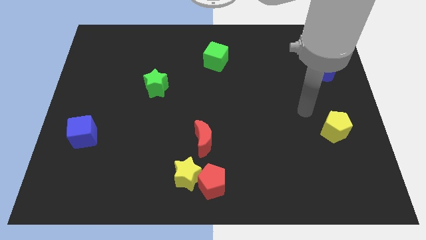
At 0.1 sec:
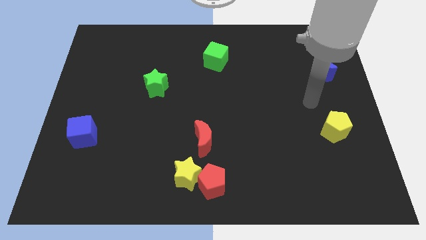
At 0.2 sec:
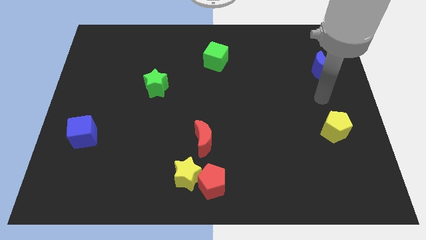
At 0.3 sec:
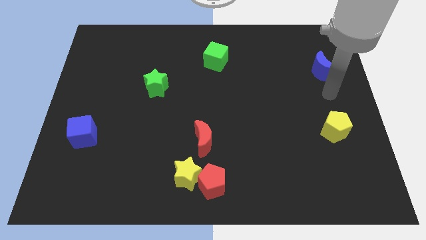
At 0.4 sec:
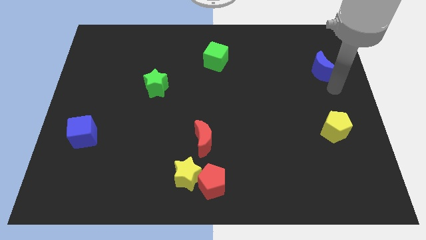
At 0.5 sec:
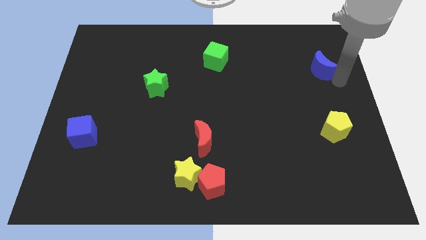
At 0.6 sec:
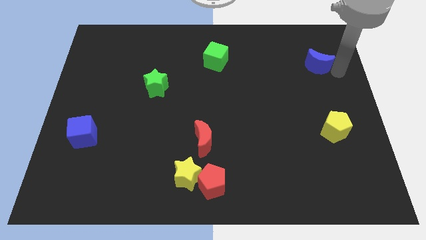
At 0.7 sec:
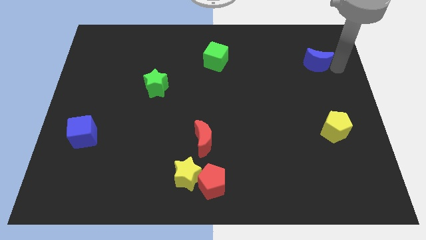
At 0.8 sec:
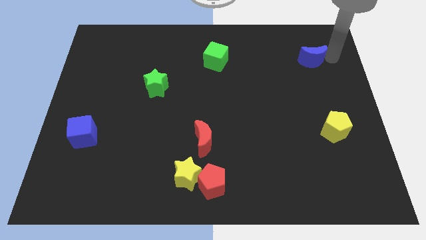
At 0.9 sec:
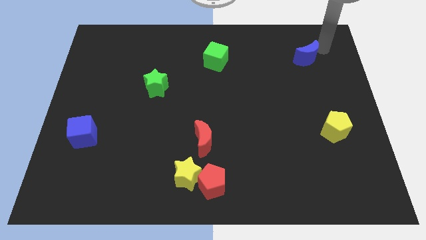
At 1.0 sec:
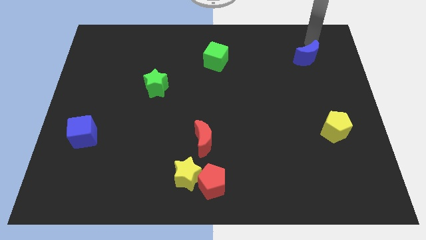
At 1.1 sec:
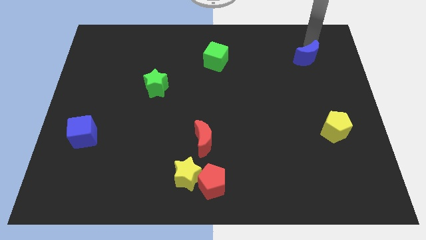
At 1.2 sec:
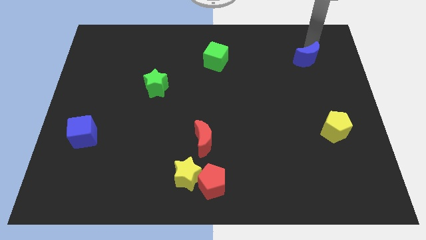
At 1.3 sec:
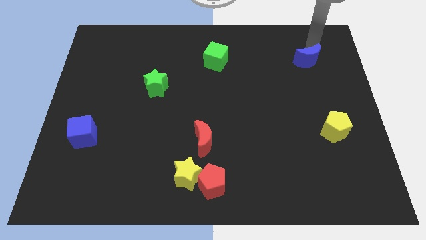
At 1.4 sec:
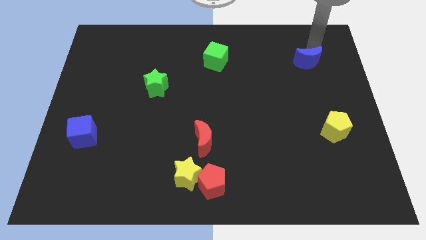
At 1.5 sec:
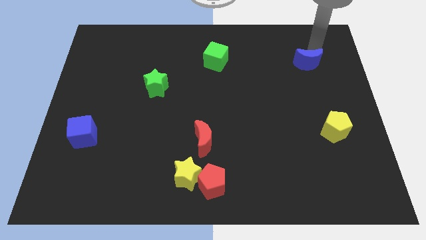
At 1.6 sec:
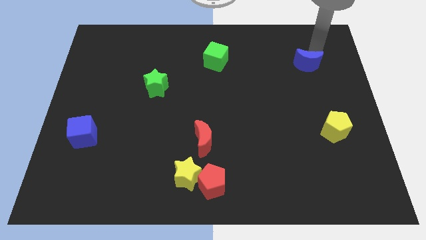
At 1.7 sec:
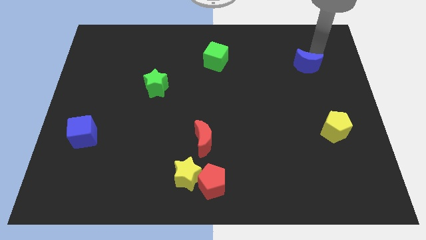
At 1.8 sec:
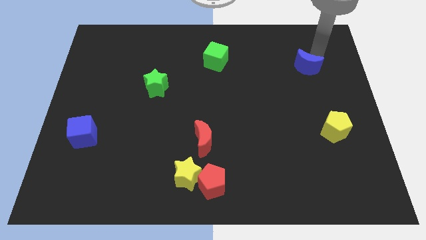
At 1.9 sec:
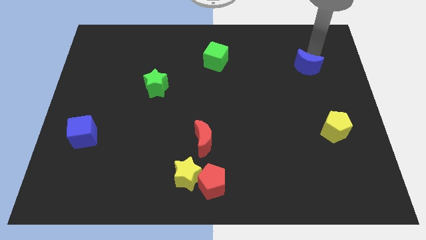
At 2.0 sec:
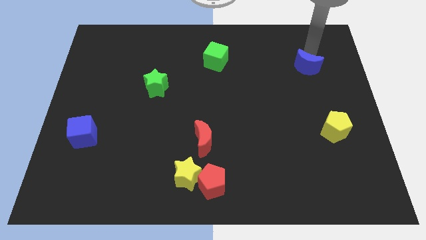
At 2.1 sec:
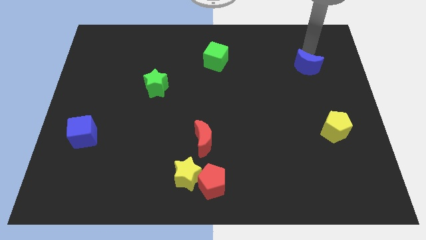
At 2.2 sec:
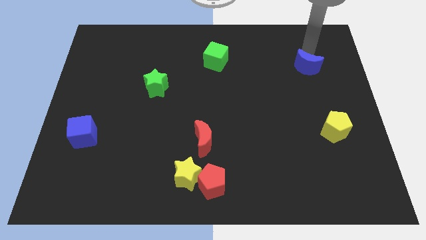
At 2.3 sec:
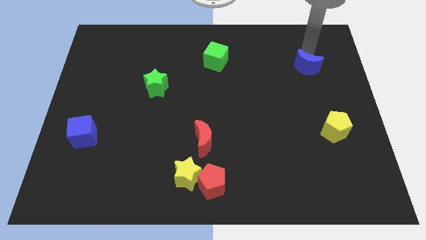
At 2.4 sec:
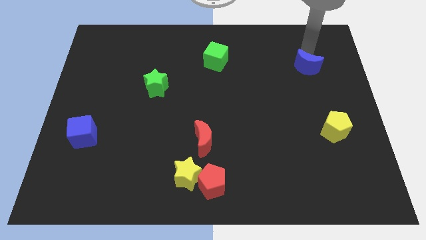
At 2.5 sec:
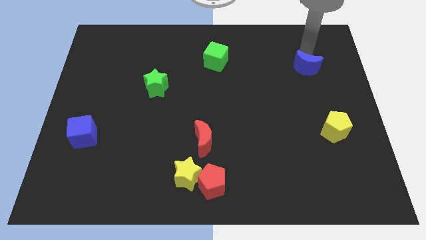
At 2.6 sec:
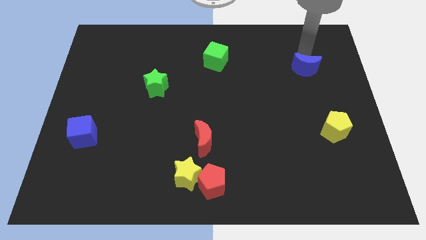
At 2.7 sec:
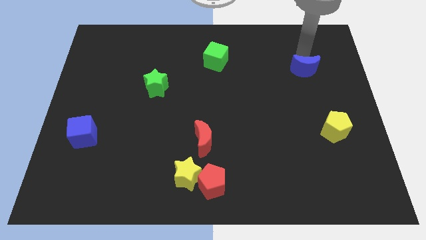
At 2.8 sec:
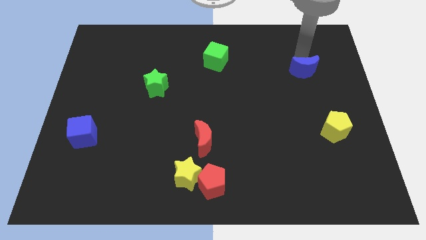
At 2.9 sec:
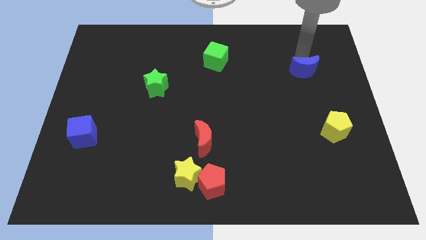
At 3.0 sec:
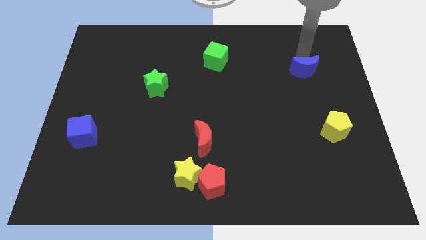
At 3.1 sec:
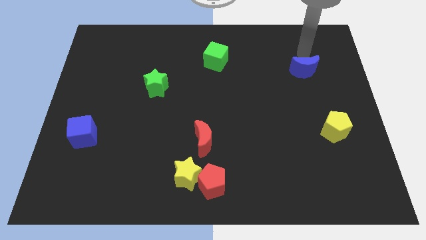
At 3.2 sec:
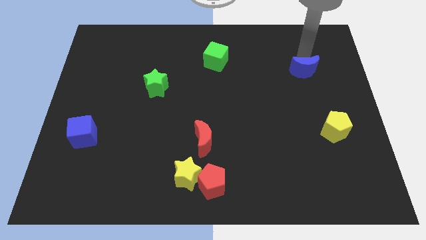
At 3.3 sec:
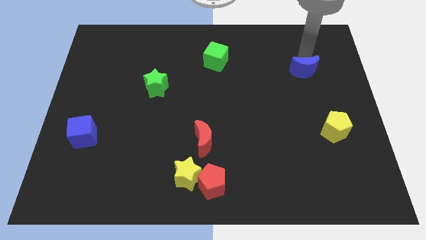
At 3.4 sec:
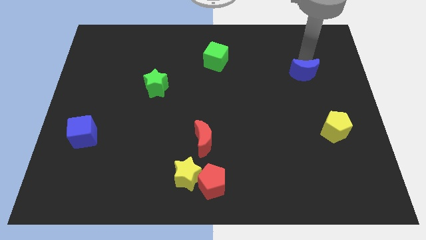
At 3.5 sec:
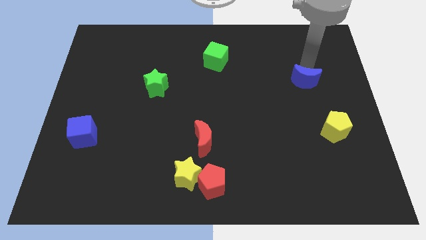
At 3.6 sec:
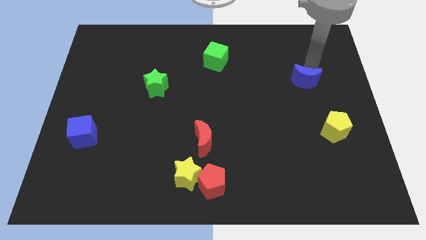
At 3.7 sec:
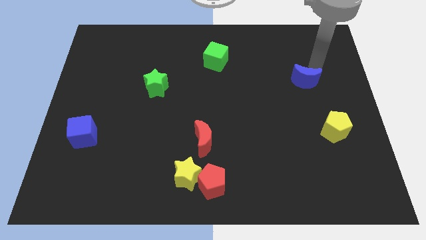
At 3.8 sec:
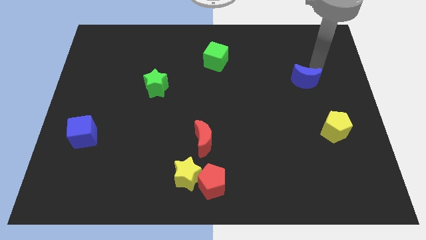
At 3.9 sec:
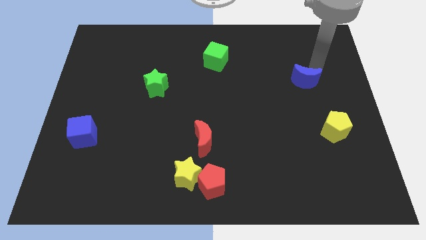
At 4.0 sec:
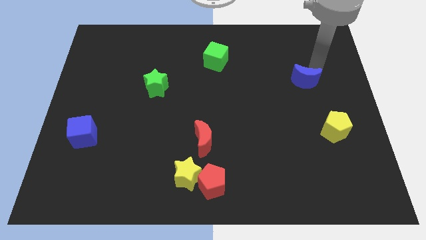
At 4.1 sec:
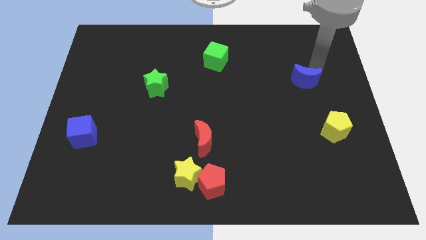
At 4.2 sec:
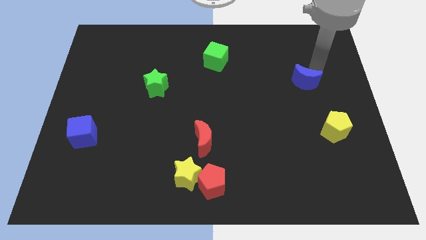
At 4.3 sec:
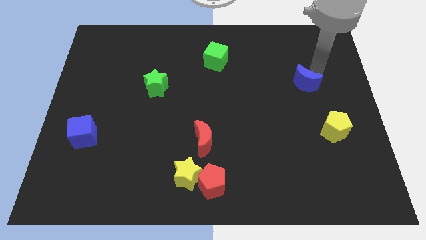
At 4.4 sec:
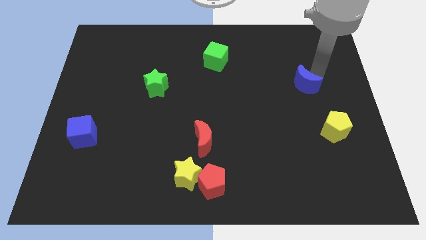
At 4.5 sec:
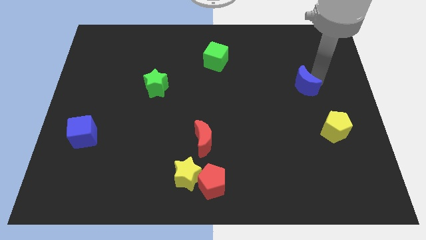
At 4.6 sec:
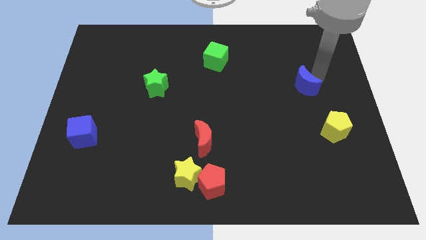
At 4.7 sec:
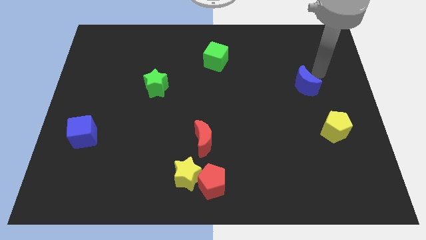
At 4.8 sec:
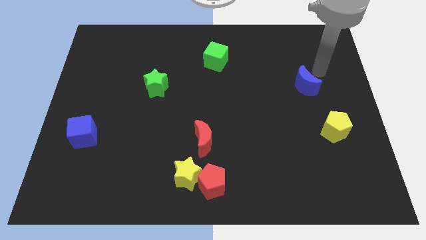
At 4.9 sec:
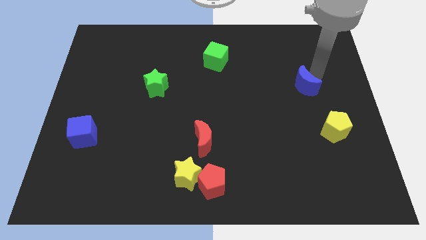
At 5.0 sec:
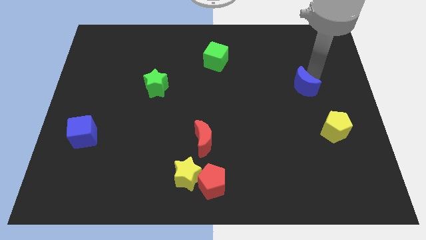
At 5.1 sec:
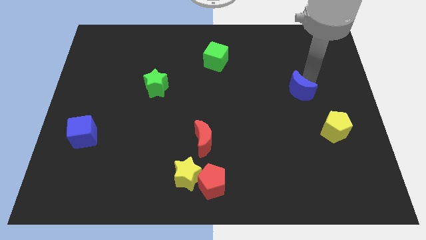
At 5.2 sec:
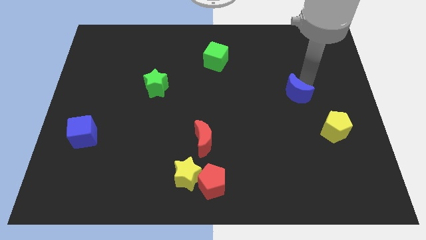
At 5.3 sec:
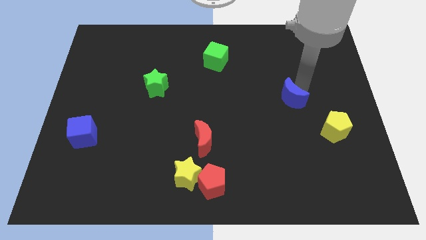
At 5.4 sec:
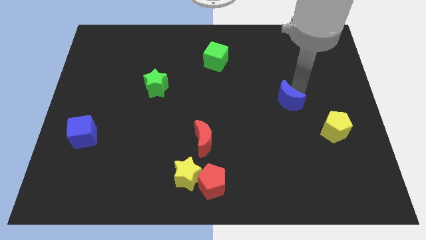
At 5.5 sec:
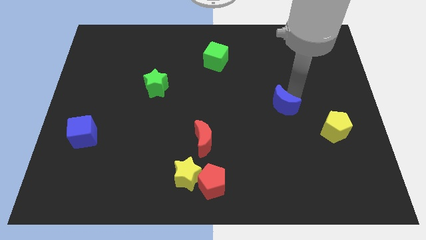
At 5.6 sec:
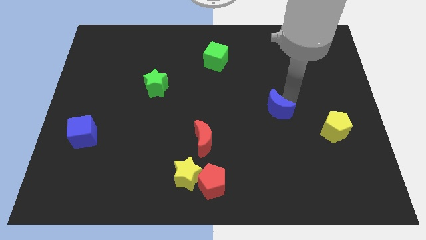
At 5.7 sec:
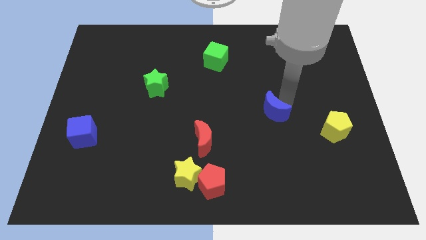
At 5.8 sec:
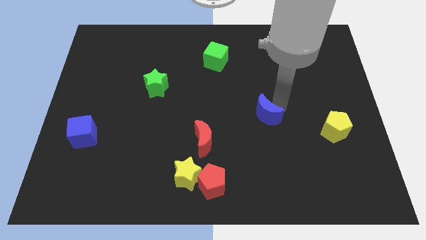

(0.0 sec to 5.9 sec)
push the blue moon down and to the left diagonally

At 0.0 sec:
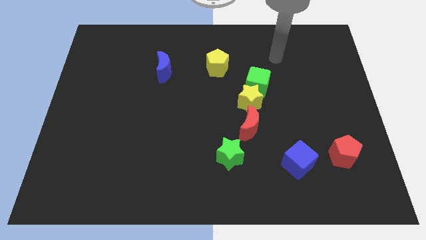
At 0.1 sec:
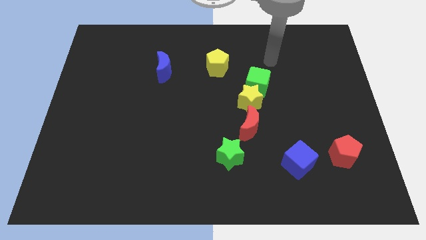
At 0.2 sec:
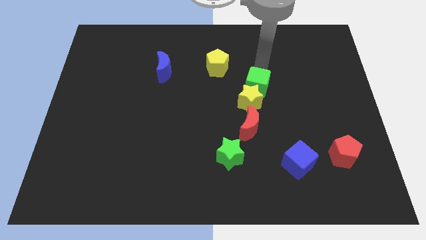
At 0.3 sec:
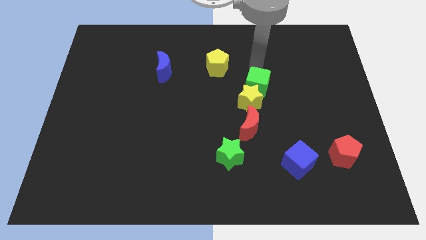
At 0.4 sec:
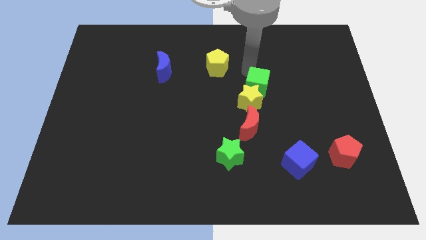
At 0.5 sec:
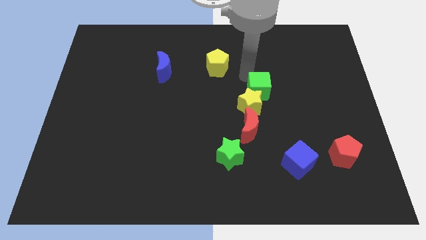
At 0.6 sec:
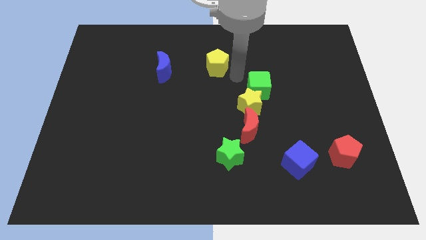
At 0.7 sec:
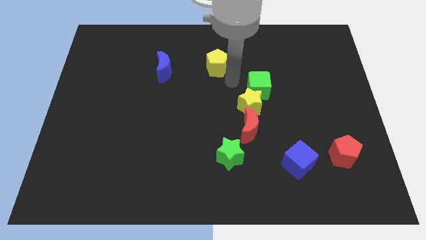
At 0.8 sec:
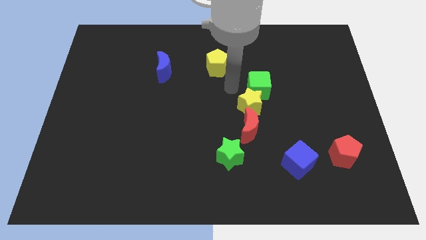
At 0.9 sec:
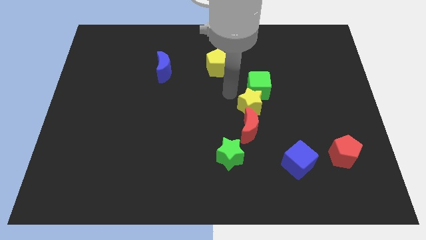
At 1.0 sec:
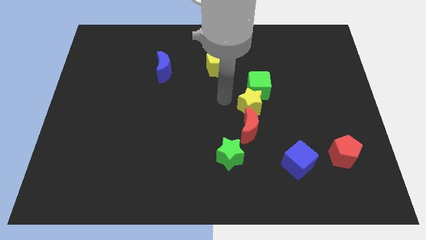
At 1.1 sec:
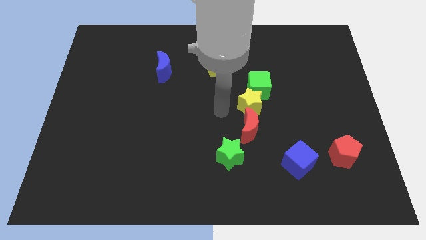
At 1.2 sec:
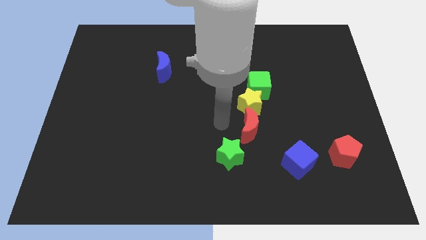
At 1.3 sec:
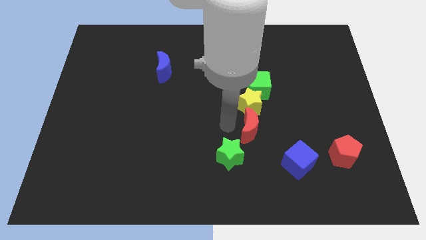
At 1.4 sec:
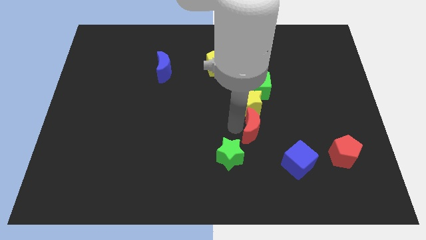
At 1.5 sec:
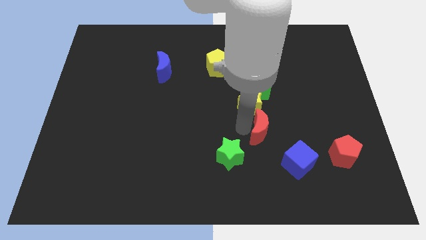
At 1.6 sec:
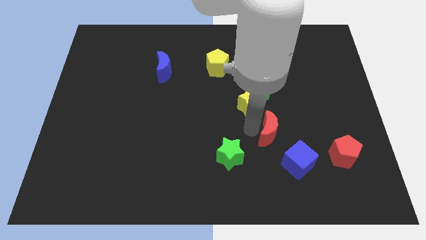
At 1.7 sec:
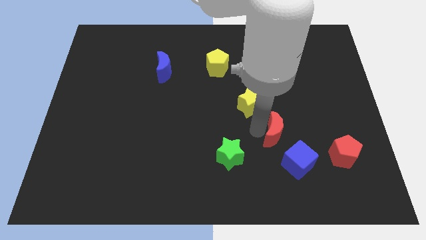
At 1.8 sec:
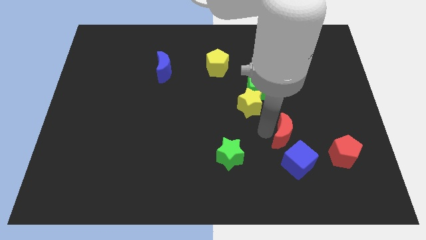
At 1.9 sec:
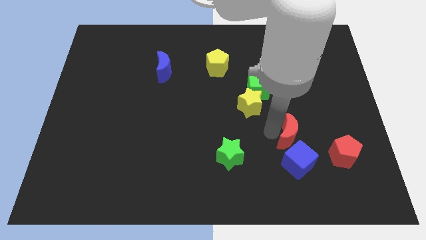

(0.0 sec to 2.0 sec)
push the red moon downwards and right somewhat

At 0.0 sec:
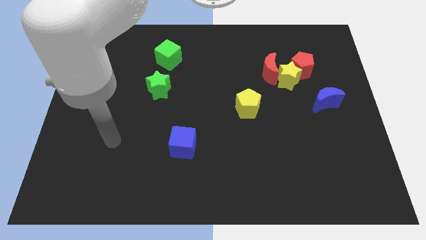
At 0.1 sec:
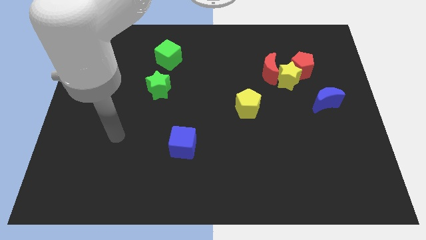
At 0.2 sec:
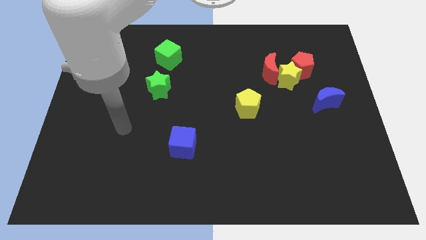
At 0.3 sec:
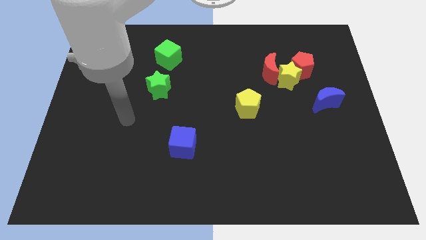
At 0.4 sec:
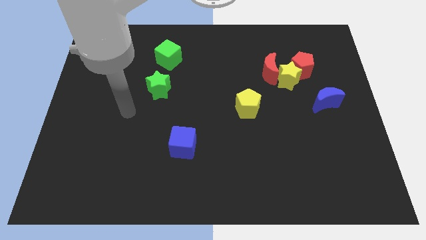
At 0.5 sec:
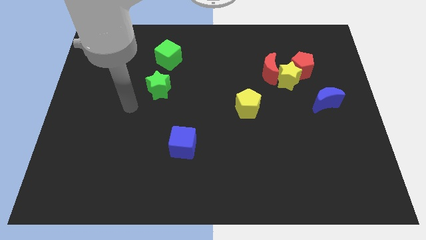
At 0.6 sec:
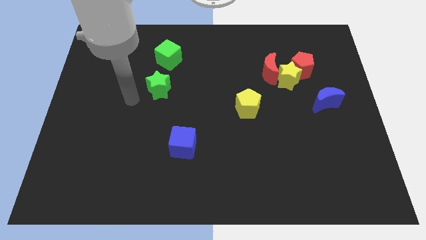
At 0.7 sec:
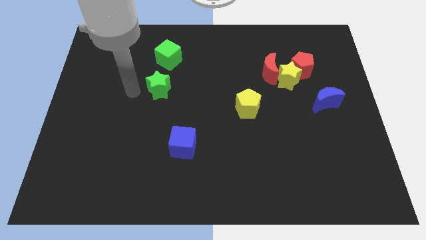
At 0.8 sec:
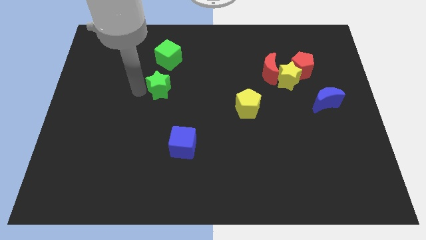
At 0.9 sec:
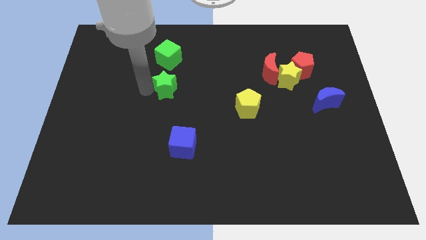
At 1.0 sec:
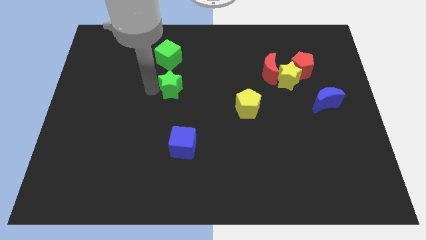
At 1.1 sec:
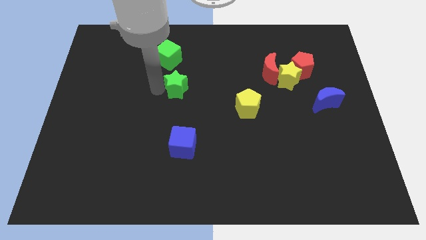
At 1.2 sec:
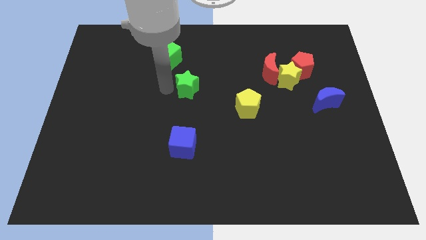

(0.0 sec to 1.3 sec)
slightly move the green star right
